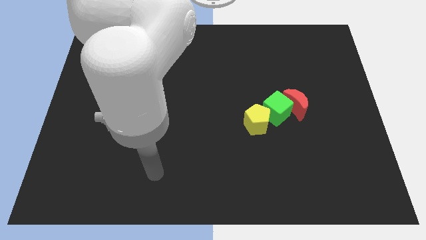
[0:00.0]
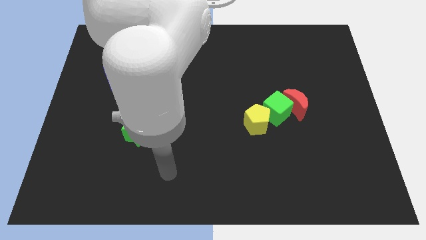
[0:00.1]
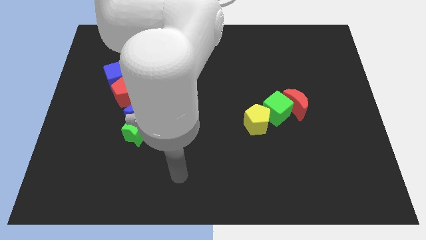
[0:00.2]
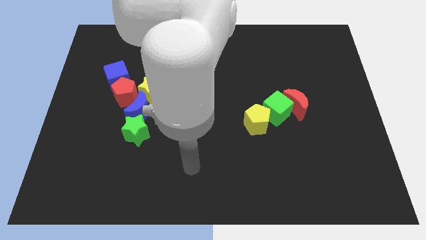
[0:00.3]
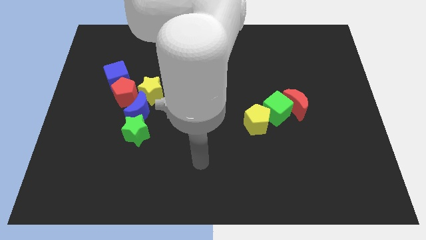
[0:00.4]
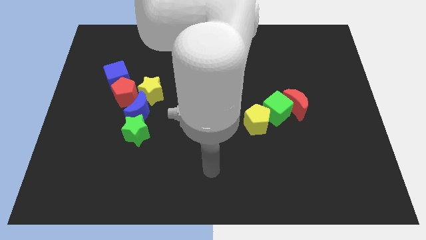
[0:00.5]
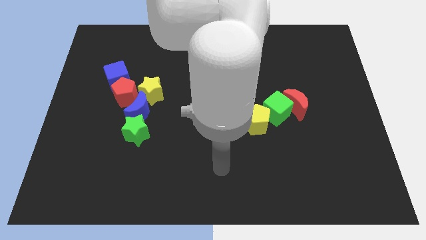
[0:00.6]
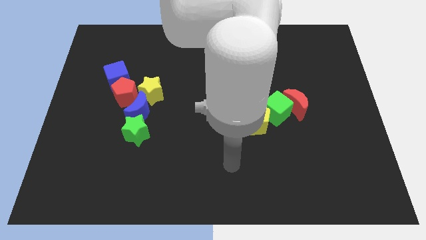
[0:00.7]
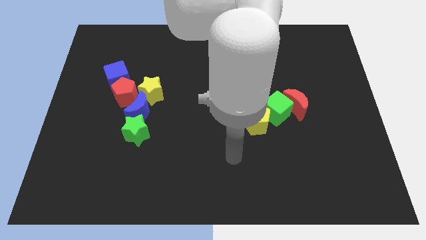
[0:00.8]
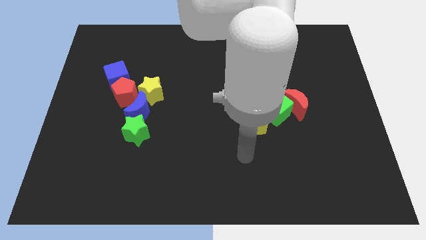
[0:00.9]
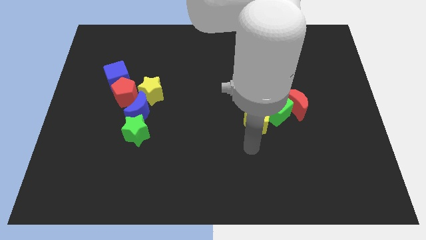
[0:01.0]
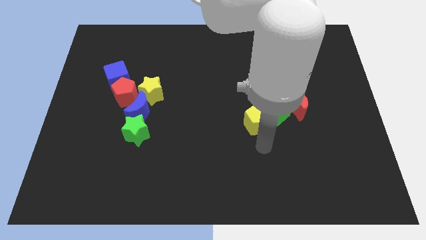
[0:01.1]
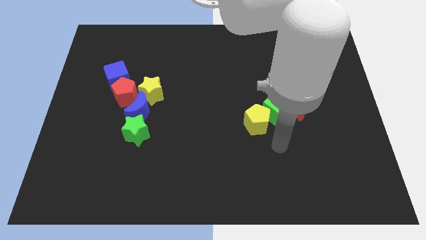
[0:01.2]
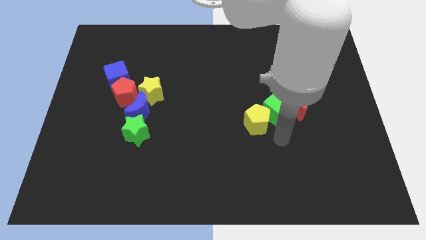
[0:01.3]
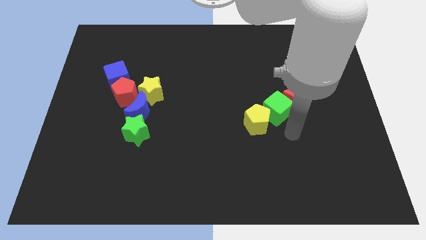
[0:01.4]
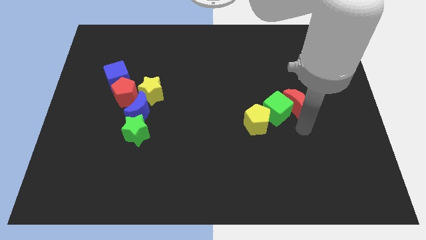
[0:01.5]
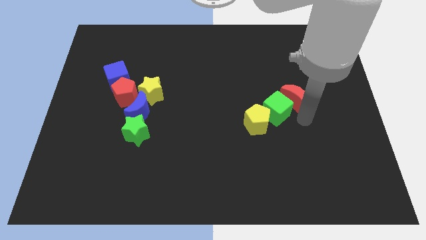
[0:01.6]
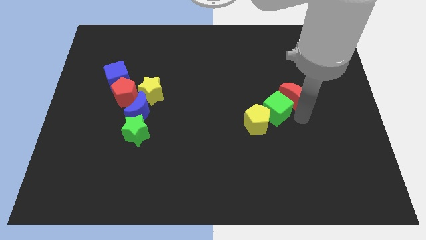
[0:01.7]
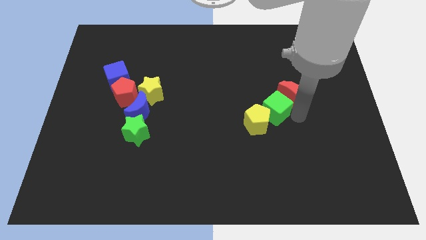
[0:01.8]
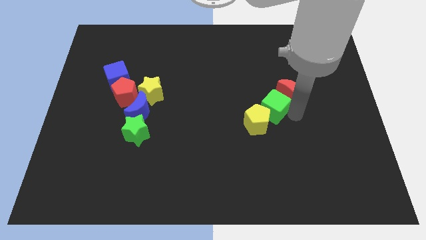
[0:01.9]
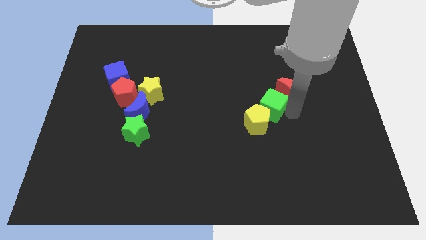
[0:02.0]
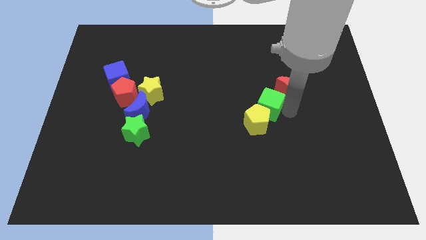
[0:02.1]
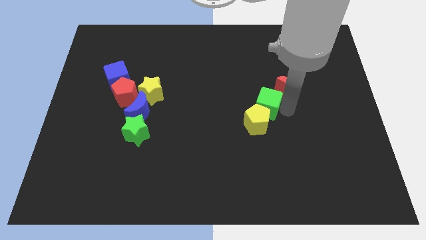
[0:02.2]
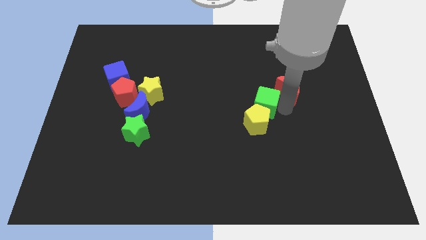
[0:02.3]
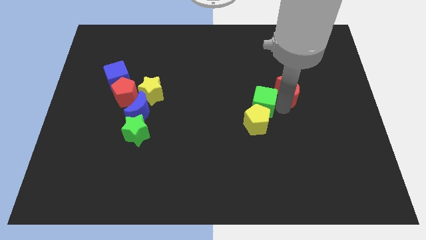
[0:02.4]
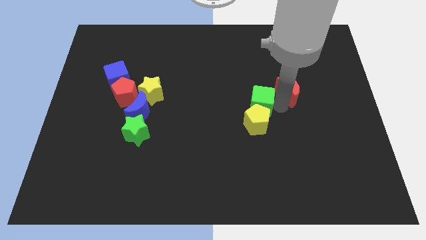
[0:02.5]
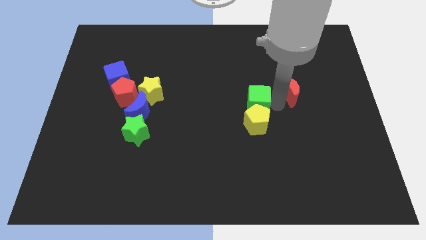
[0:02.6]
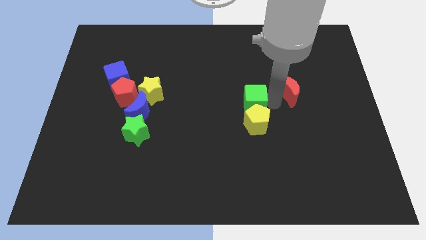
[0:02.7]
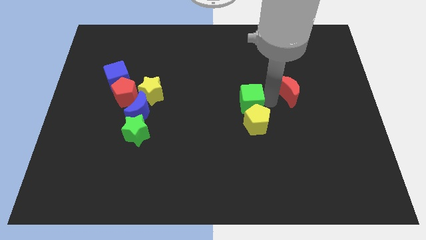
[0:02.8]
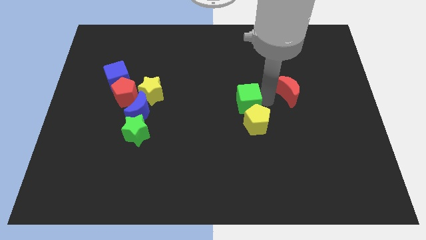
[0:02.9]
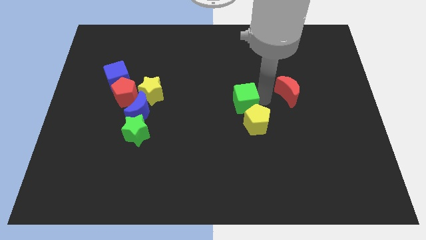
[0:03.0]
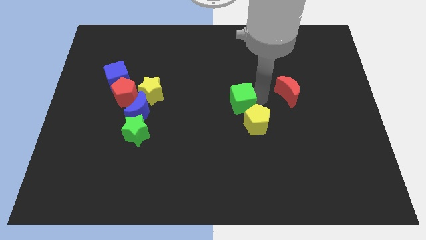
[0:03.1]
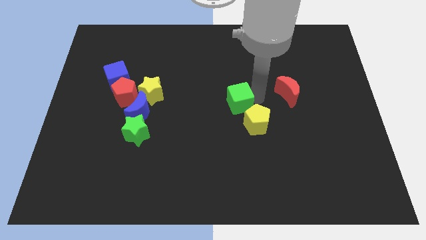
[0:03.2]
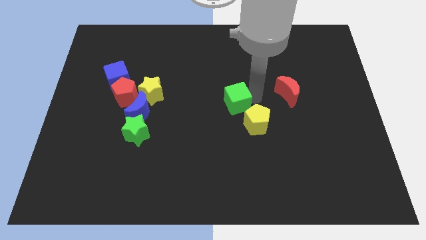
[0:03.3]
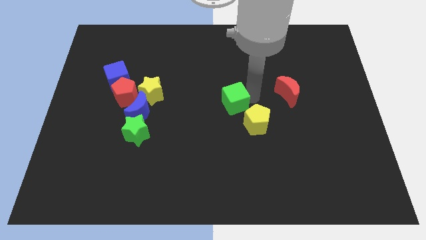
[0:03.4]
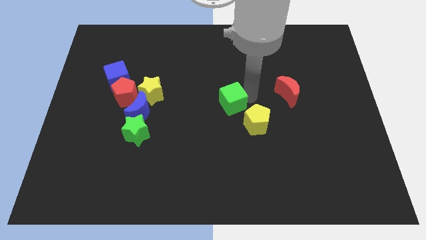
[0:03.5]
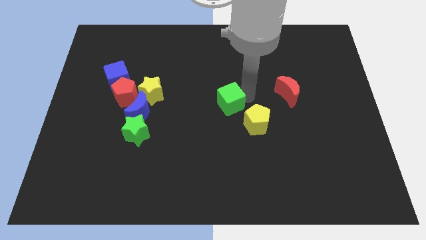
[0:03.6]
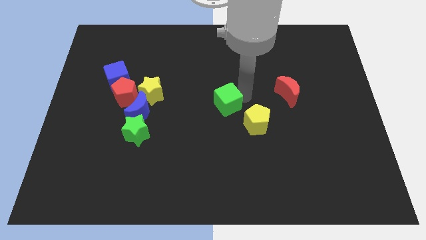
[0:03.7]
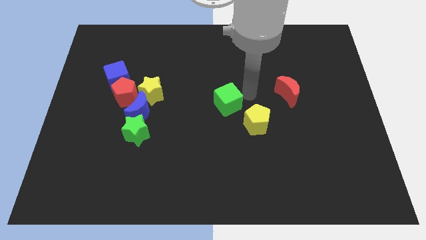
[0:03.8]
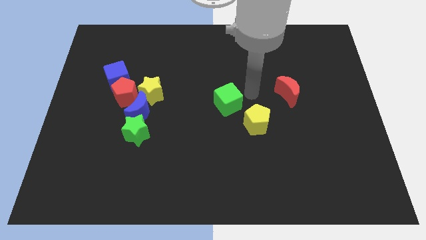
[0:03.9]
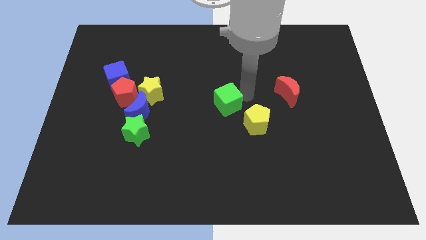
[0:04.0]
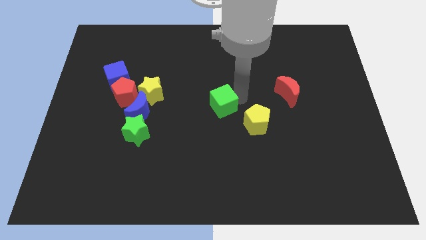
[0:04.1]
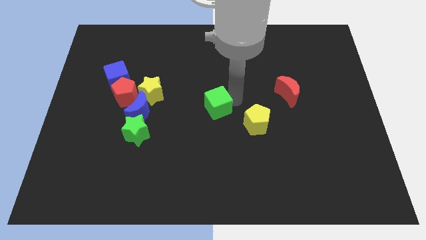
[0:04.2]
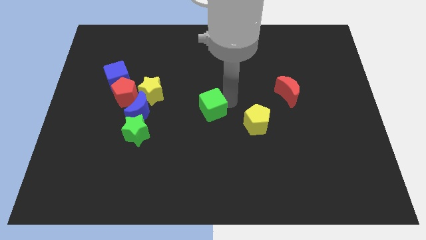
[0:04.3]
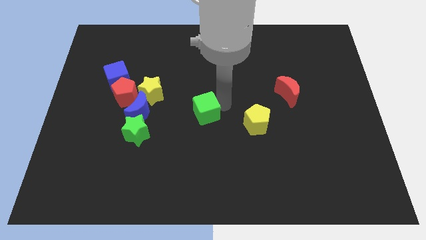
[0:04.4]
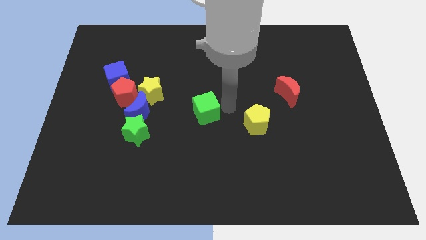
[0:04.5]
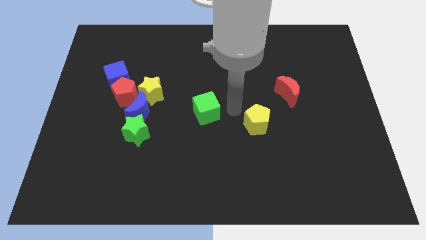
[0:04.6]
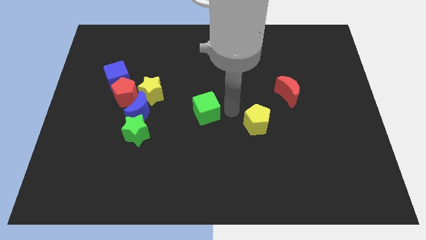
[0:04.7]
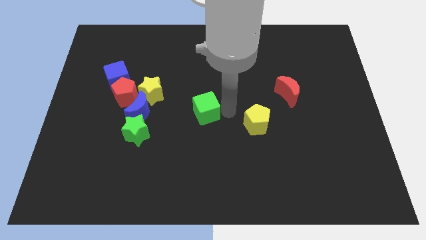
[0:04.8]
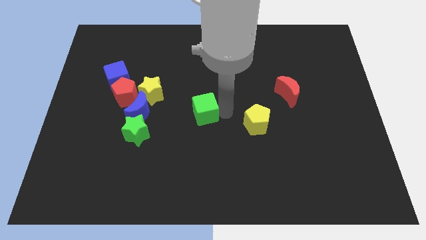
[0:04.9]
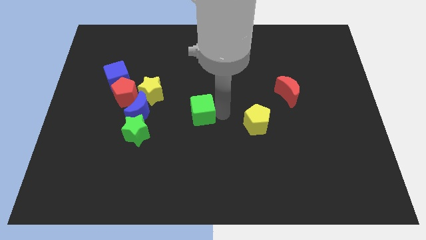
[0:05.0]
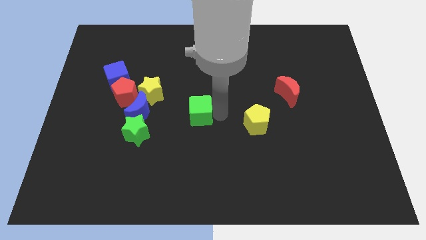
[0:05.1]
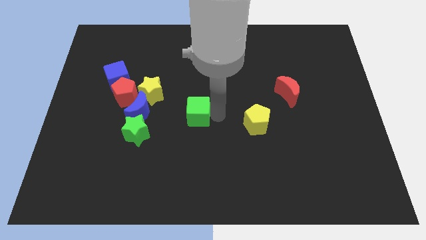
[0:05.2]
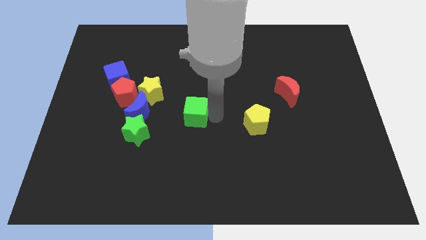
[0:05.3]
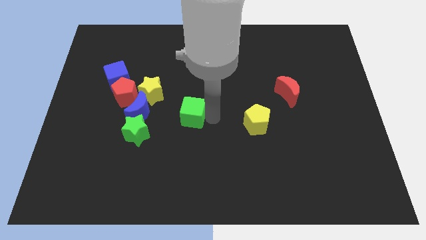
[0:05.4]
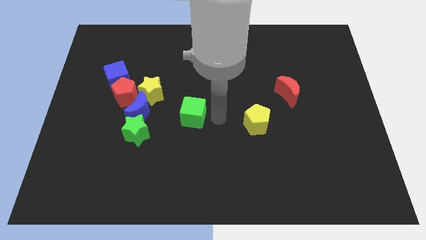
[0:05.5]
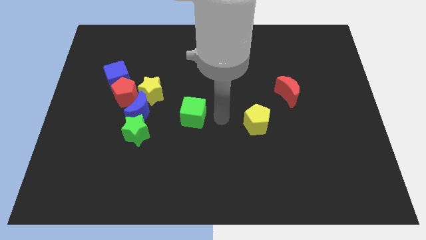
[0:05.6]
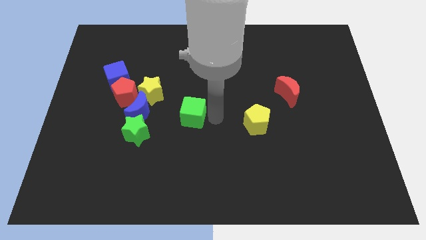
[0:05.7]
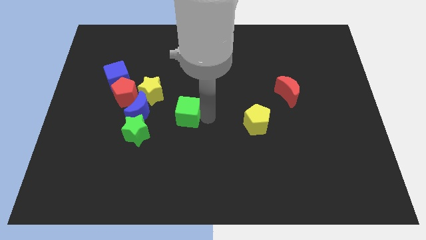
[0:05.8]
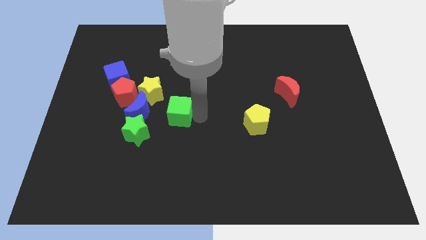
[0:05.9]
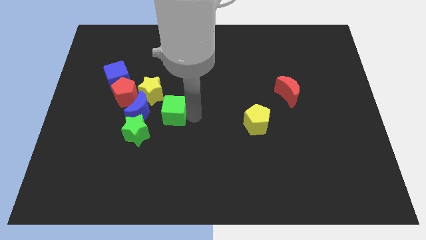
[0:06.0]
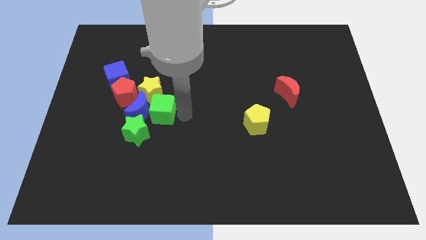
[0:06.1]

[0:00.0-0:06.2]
push the green cube to the blue moon

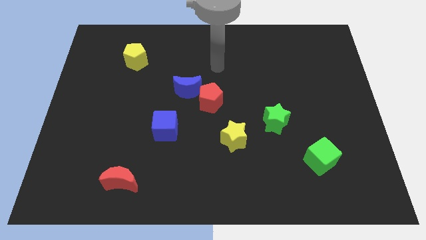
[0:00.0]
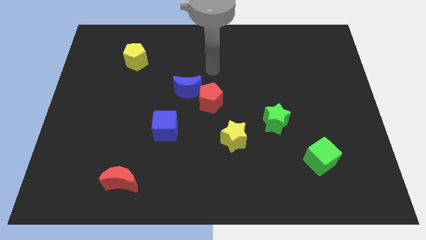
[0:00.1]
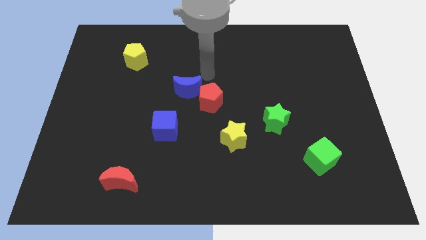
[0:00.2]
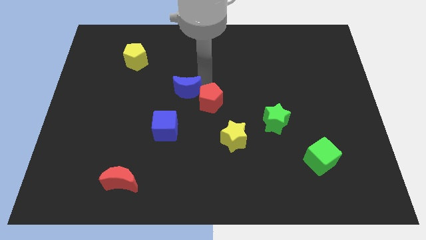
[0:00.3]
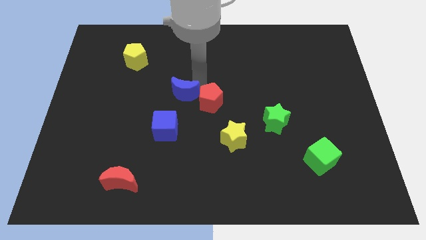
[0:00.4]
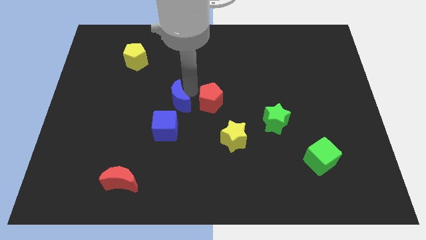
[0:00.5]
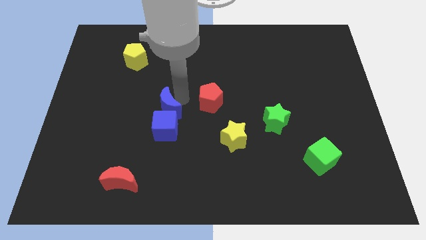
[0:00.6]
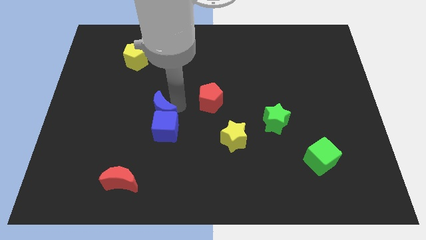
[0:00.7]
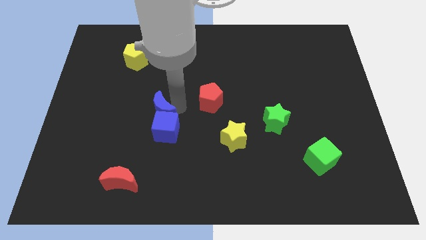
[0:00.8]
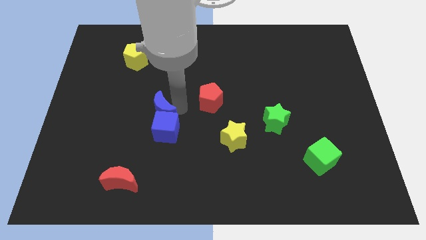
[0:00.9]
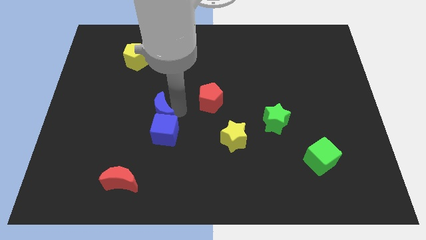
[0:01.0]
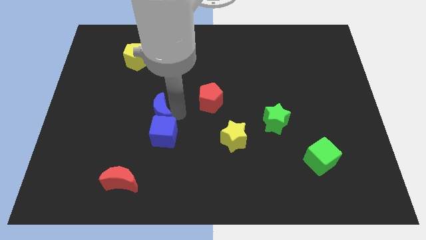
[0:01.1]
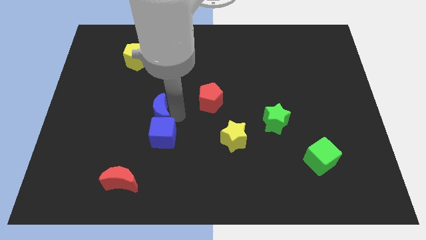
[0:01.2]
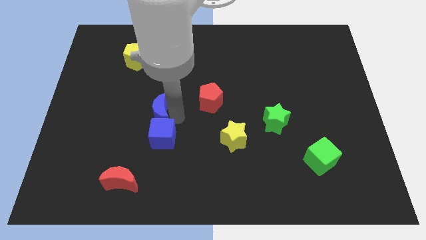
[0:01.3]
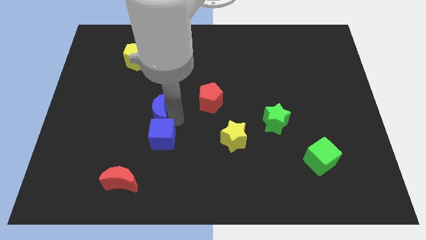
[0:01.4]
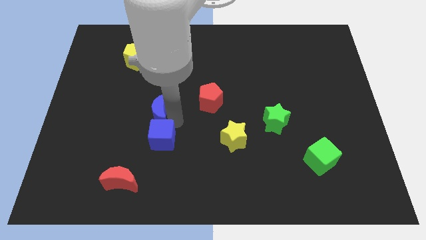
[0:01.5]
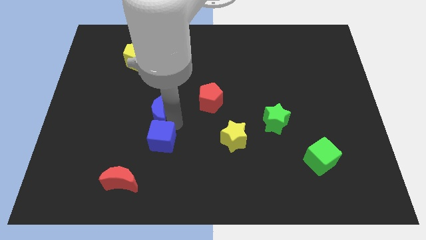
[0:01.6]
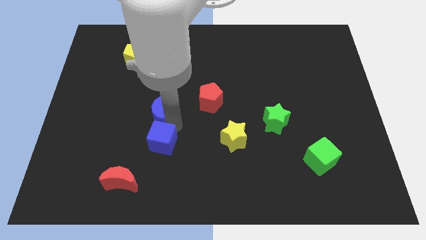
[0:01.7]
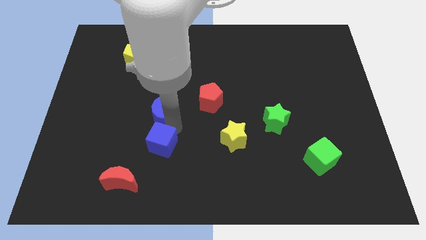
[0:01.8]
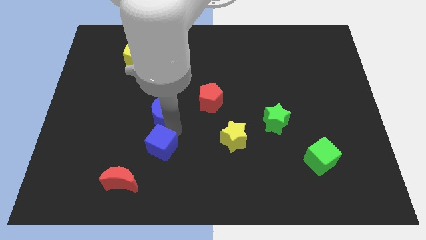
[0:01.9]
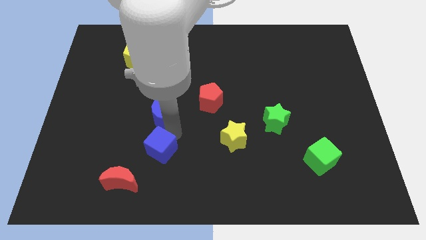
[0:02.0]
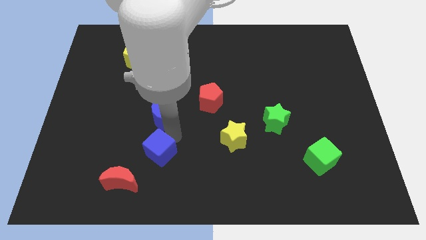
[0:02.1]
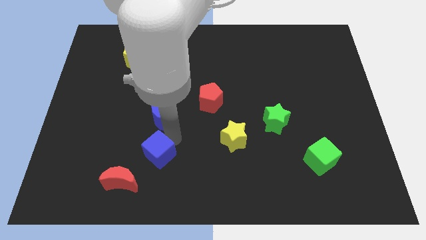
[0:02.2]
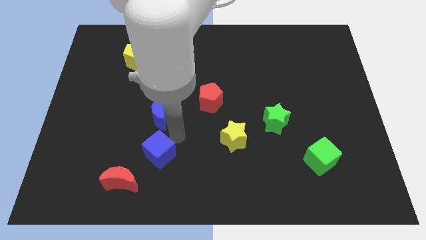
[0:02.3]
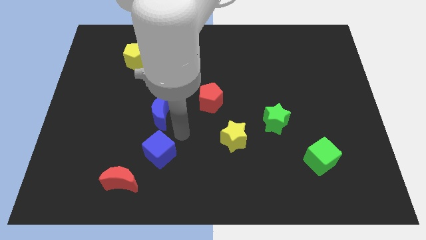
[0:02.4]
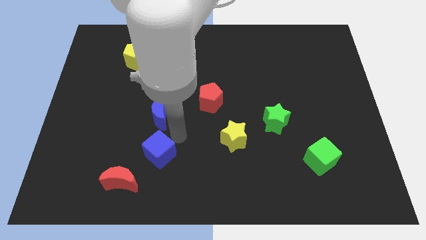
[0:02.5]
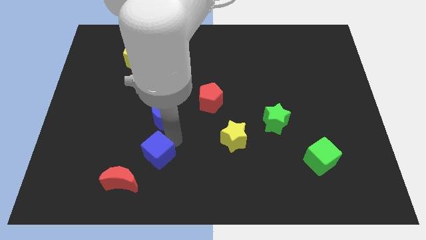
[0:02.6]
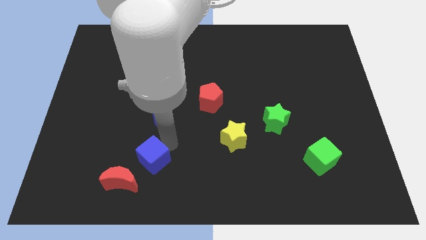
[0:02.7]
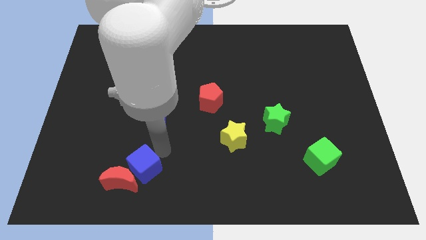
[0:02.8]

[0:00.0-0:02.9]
put the blue cube towards the red moon
